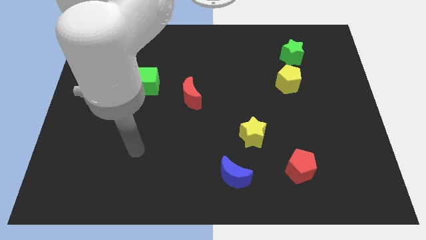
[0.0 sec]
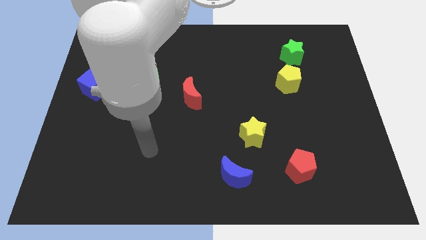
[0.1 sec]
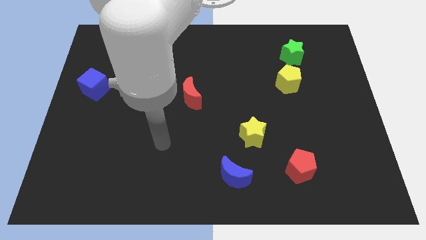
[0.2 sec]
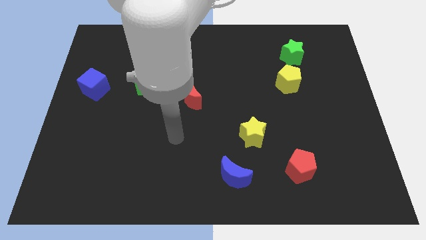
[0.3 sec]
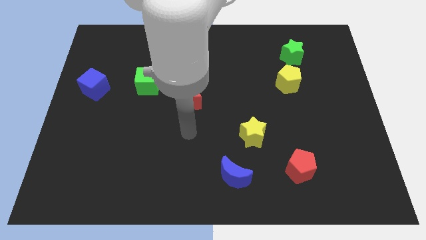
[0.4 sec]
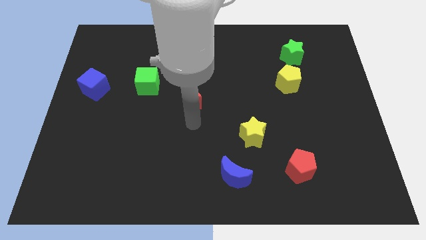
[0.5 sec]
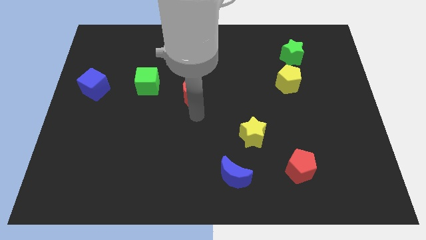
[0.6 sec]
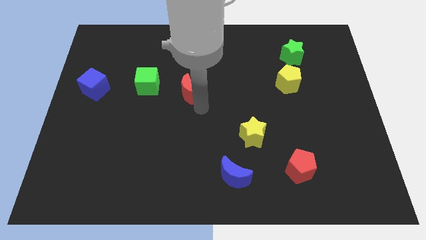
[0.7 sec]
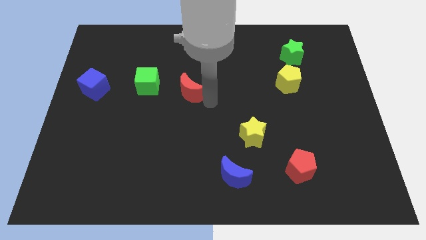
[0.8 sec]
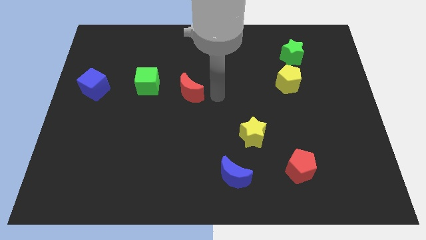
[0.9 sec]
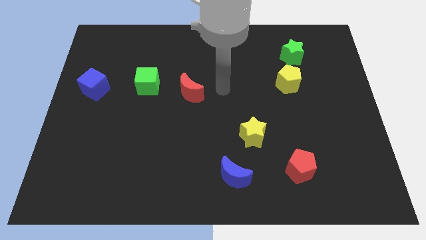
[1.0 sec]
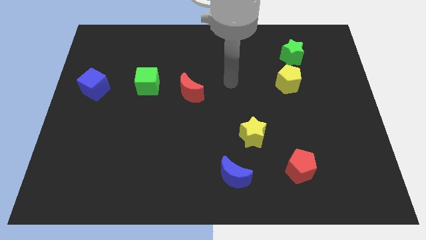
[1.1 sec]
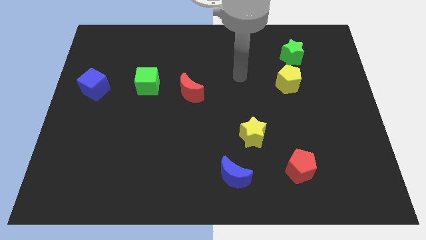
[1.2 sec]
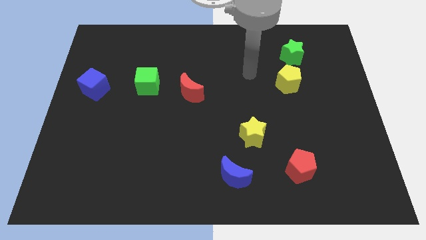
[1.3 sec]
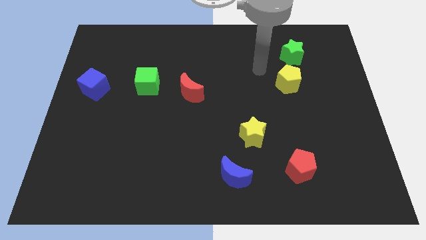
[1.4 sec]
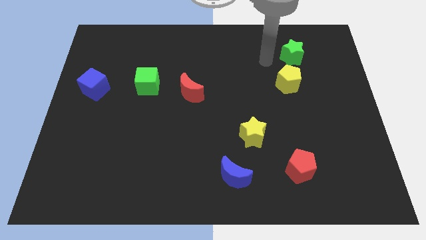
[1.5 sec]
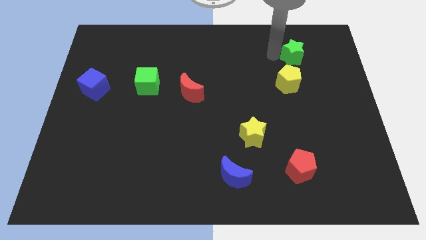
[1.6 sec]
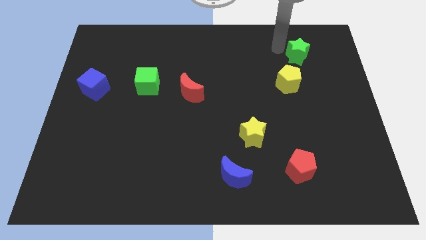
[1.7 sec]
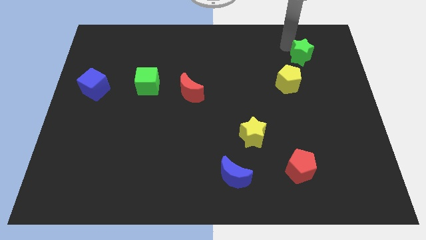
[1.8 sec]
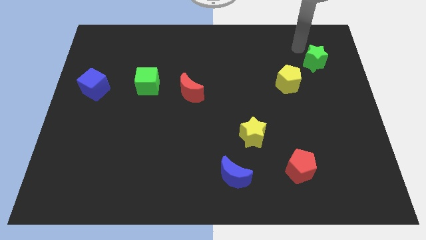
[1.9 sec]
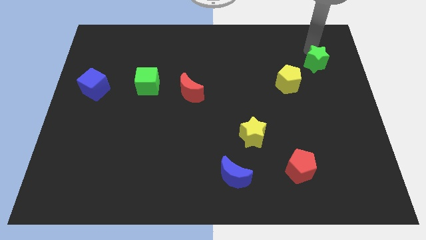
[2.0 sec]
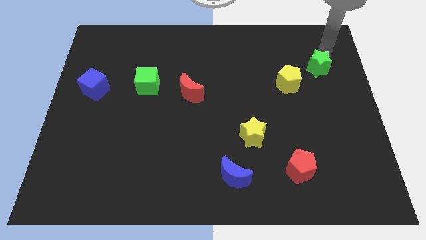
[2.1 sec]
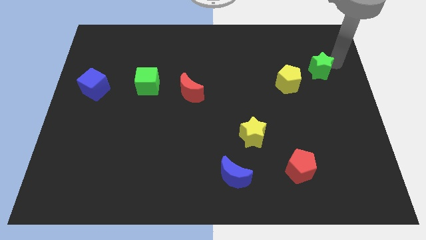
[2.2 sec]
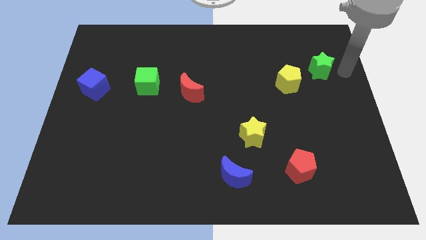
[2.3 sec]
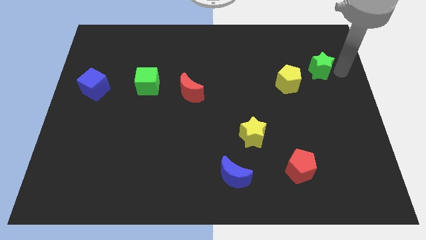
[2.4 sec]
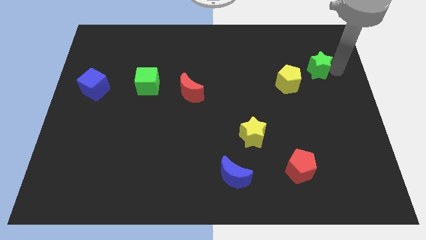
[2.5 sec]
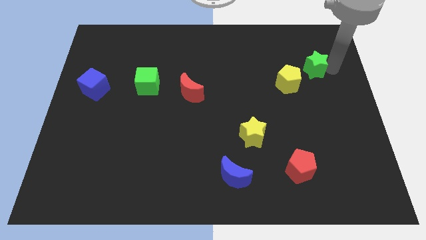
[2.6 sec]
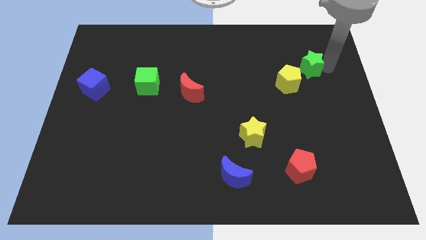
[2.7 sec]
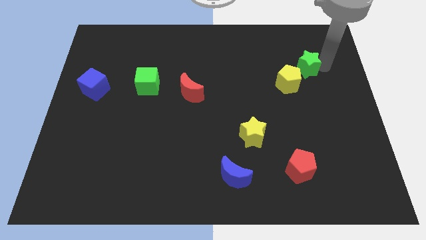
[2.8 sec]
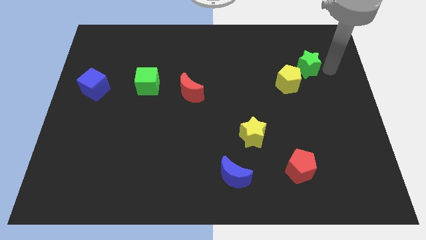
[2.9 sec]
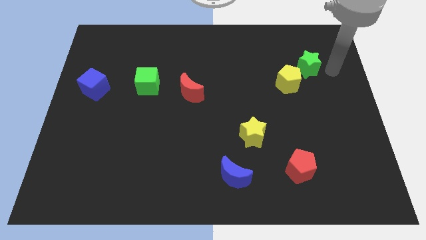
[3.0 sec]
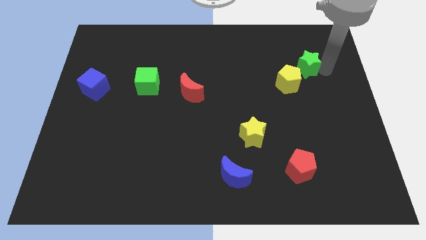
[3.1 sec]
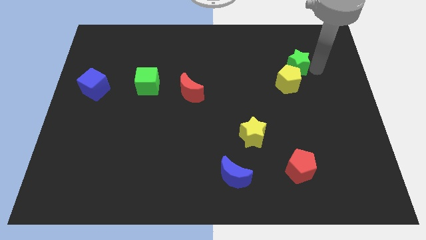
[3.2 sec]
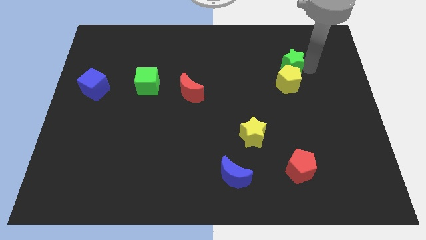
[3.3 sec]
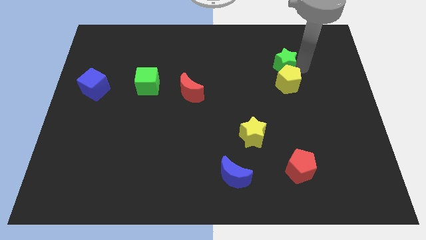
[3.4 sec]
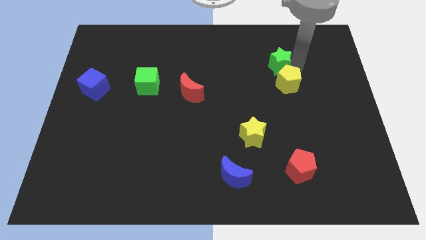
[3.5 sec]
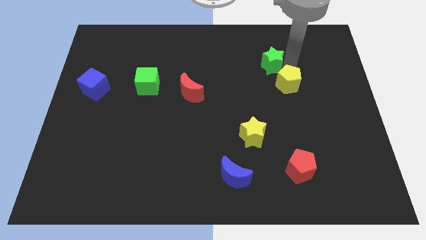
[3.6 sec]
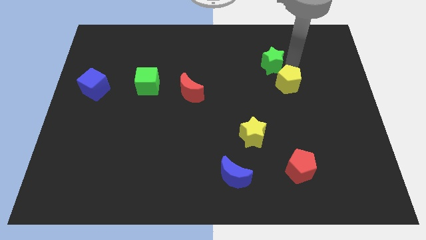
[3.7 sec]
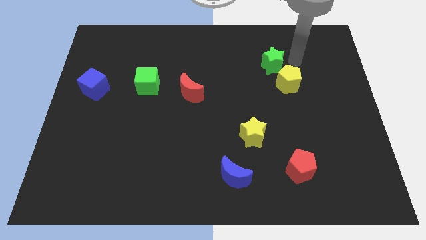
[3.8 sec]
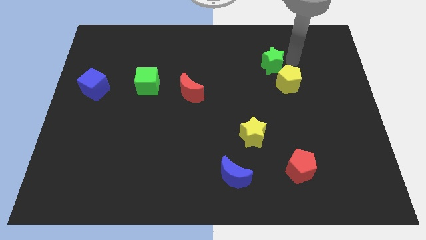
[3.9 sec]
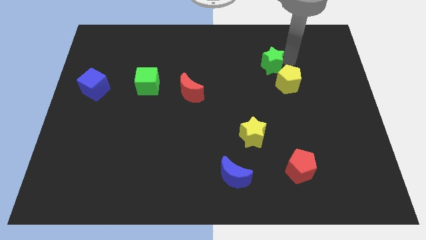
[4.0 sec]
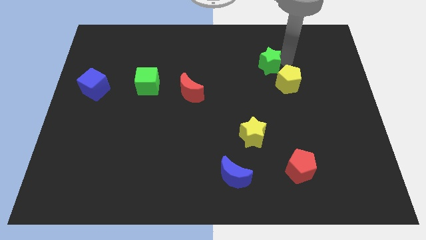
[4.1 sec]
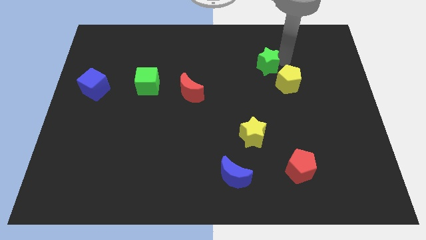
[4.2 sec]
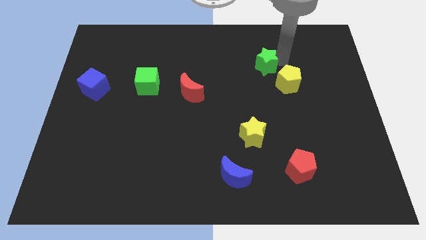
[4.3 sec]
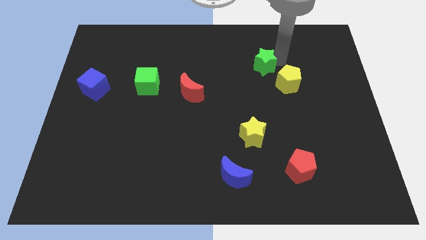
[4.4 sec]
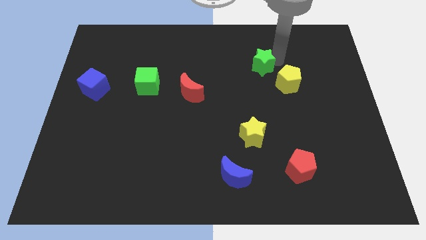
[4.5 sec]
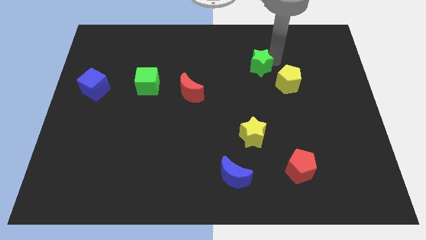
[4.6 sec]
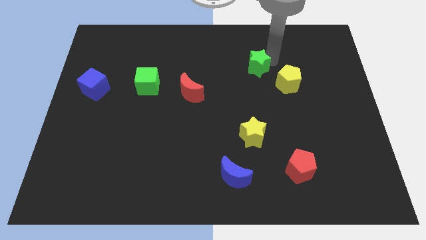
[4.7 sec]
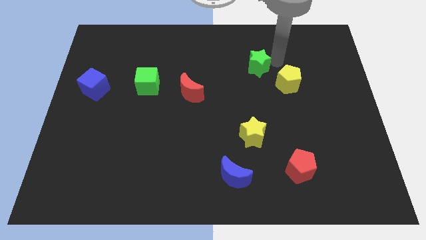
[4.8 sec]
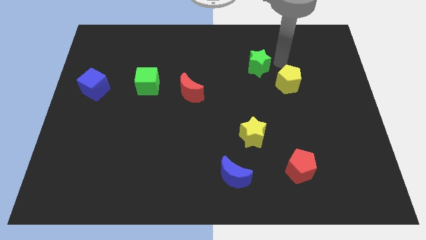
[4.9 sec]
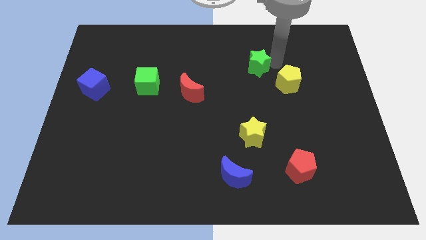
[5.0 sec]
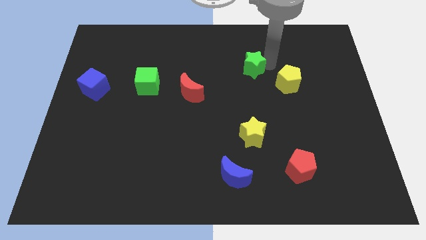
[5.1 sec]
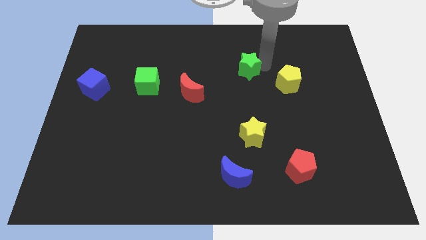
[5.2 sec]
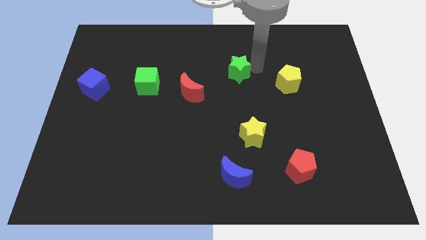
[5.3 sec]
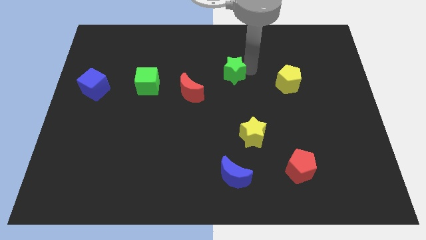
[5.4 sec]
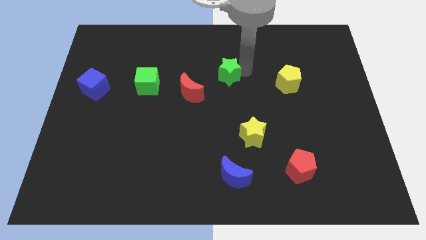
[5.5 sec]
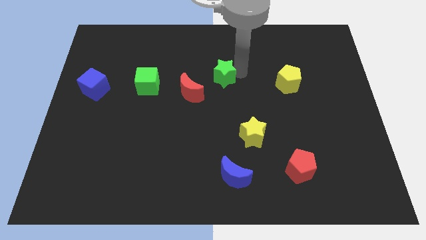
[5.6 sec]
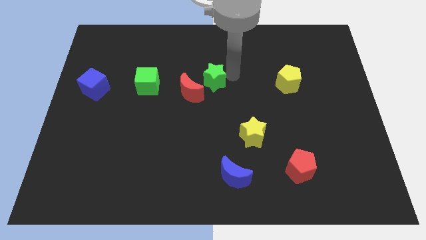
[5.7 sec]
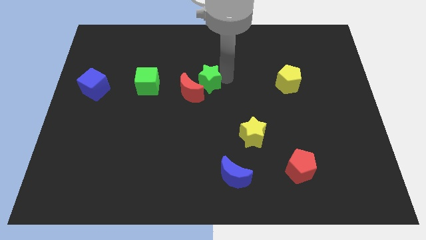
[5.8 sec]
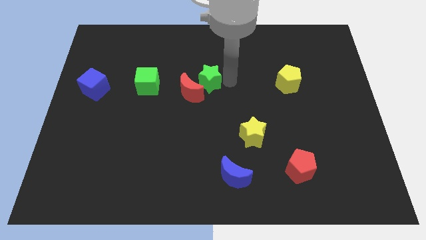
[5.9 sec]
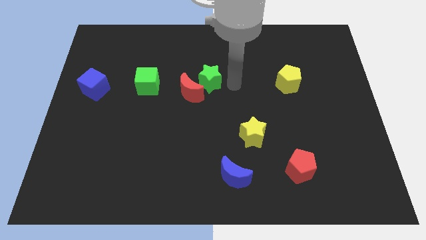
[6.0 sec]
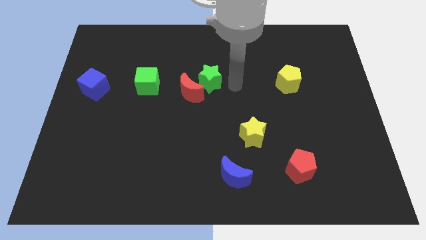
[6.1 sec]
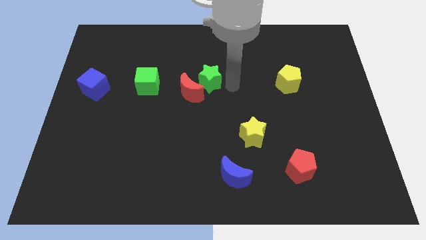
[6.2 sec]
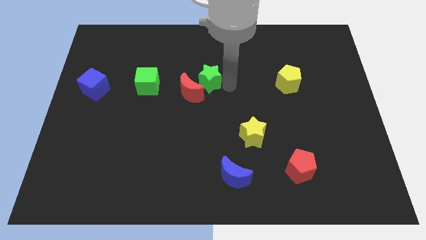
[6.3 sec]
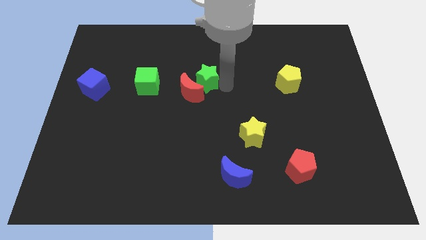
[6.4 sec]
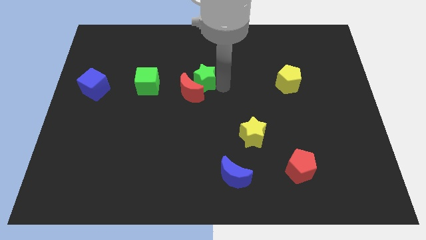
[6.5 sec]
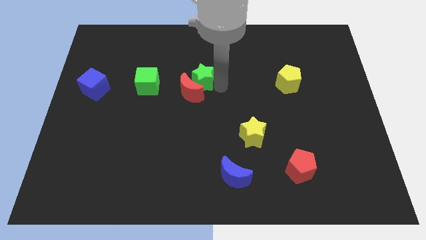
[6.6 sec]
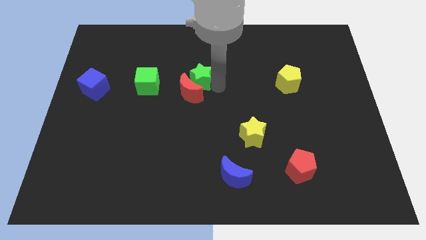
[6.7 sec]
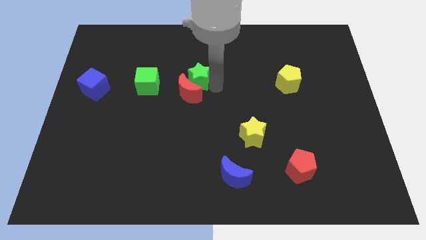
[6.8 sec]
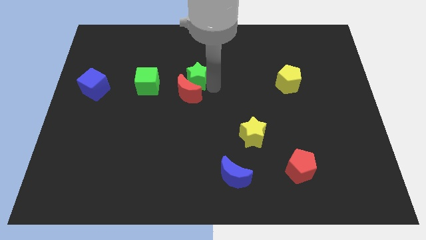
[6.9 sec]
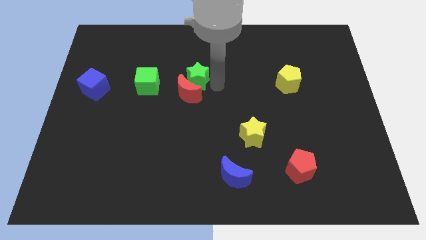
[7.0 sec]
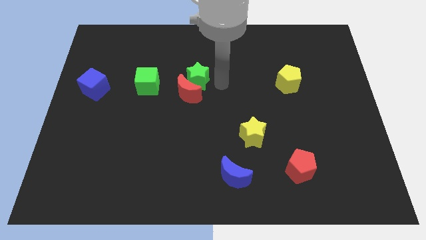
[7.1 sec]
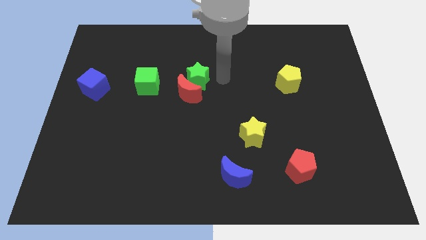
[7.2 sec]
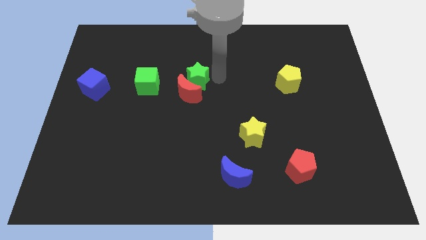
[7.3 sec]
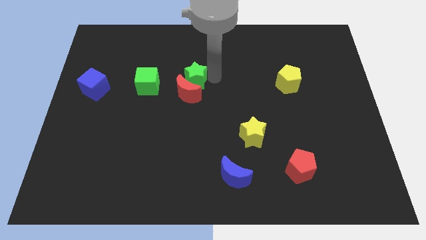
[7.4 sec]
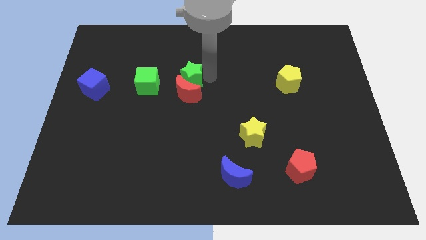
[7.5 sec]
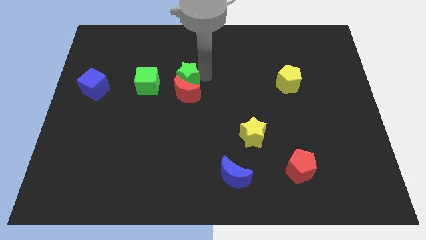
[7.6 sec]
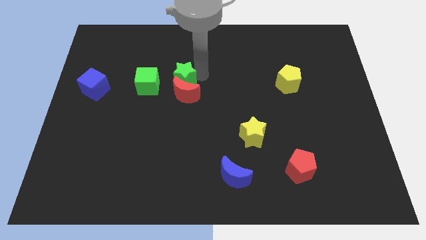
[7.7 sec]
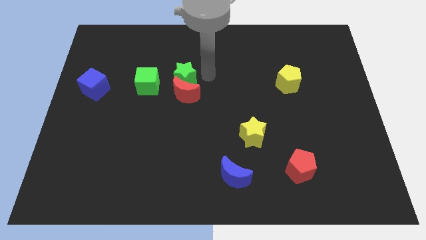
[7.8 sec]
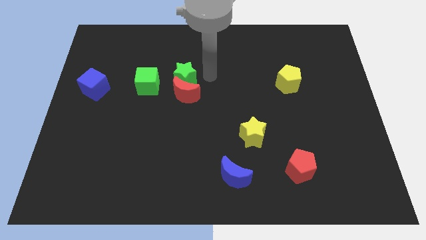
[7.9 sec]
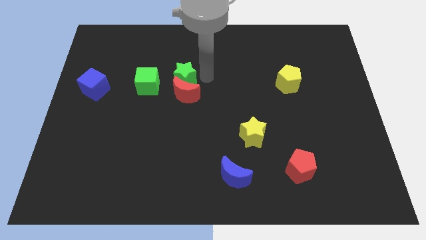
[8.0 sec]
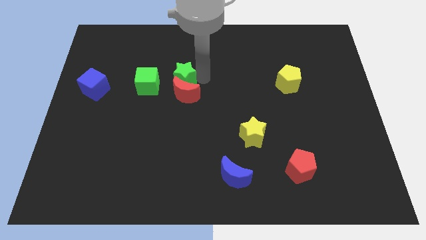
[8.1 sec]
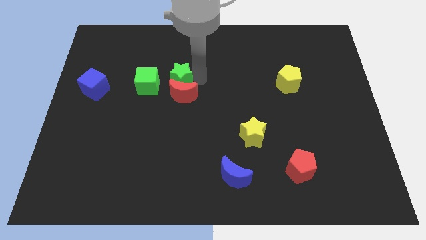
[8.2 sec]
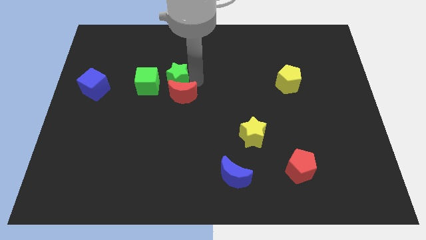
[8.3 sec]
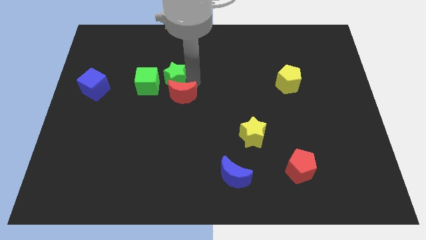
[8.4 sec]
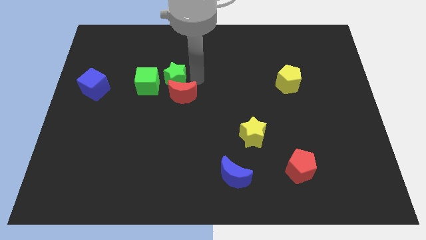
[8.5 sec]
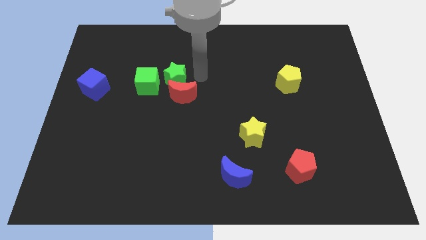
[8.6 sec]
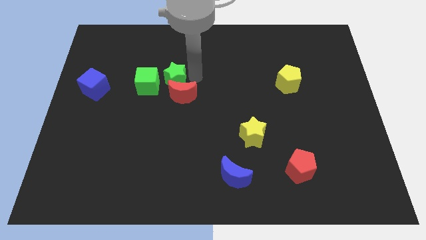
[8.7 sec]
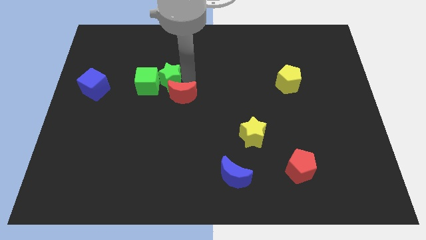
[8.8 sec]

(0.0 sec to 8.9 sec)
put the green star next to the green cube
